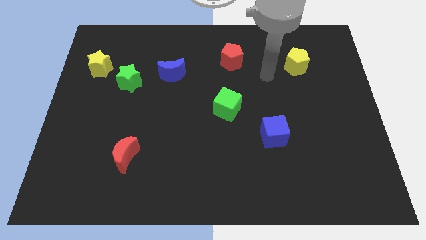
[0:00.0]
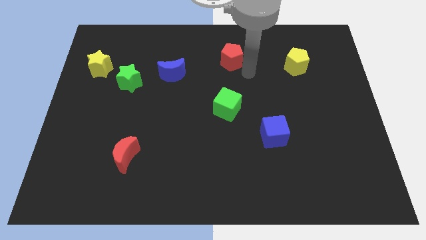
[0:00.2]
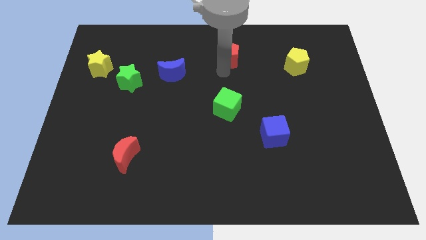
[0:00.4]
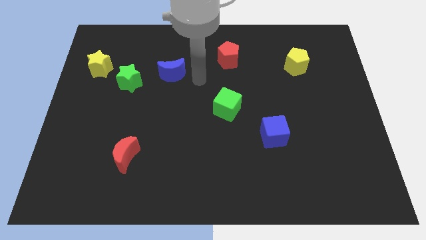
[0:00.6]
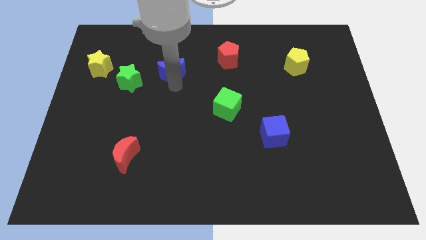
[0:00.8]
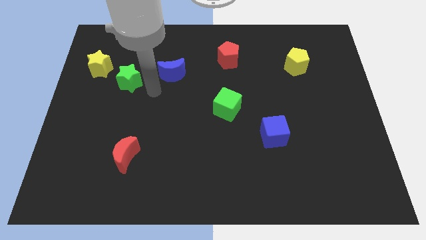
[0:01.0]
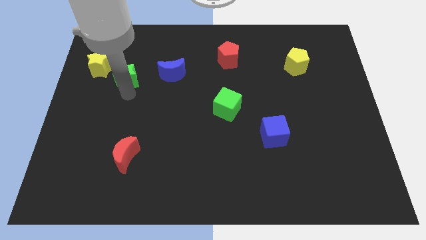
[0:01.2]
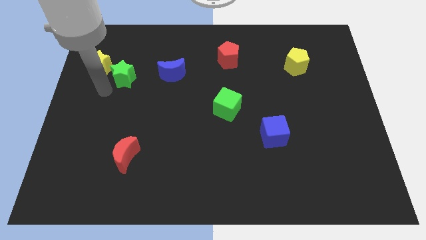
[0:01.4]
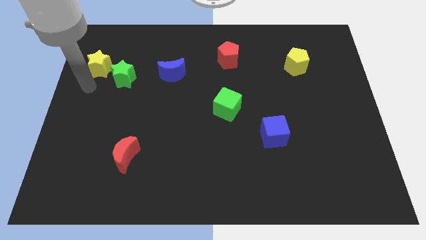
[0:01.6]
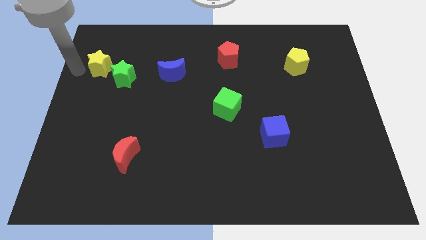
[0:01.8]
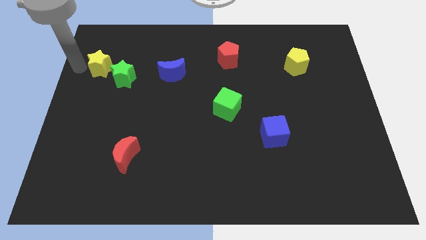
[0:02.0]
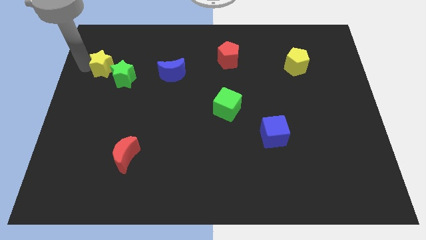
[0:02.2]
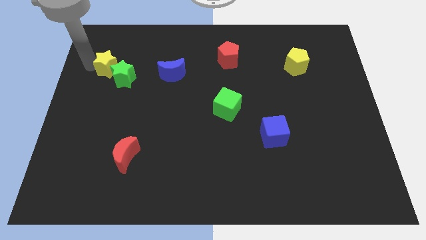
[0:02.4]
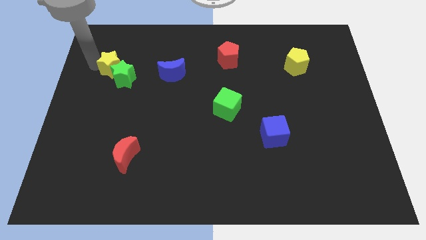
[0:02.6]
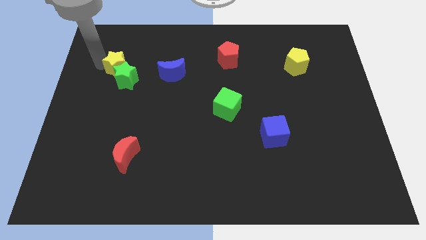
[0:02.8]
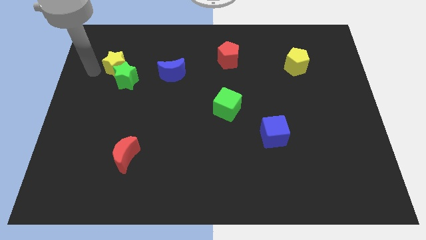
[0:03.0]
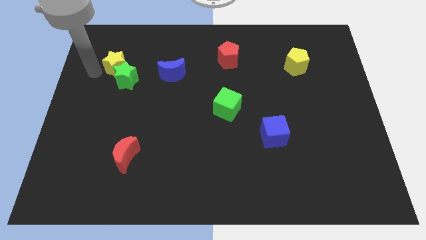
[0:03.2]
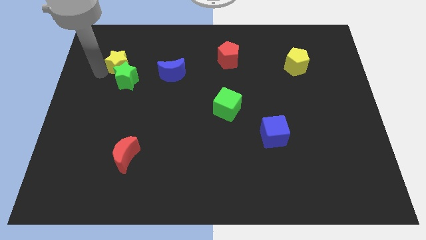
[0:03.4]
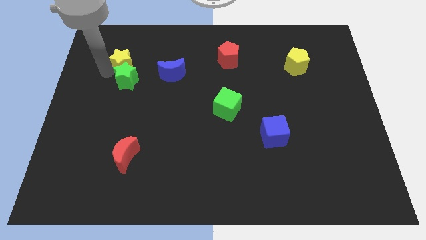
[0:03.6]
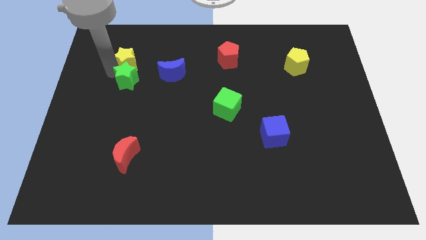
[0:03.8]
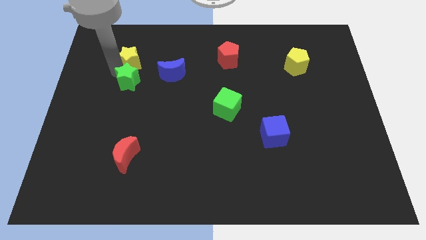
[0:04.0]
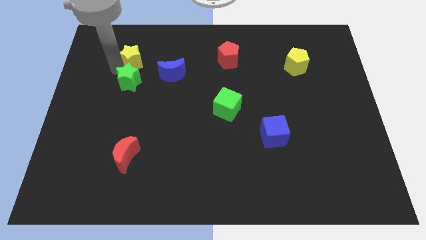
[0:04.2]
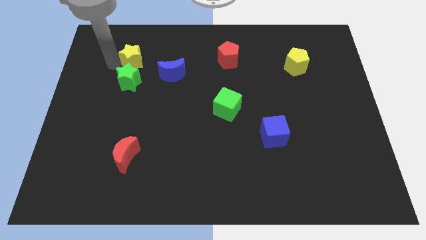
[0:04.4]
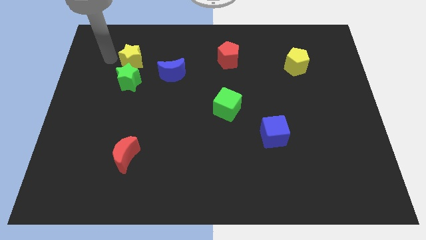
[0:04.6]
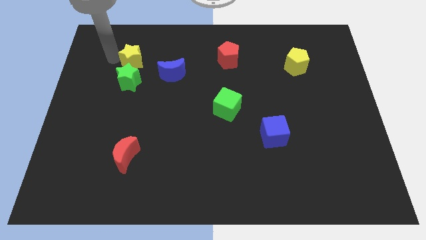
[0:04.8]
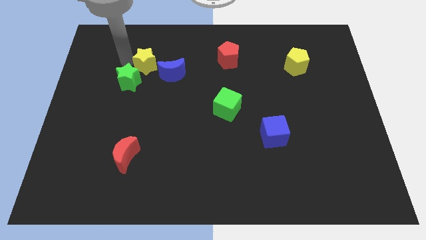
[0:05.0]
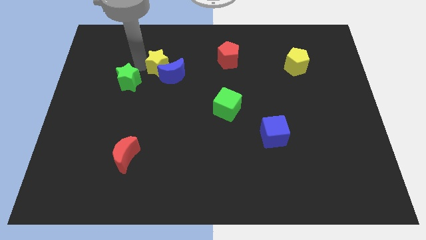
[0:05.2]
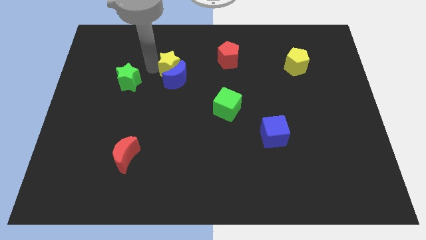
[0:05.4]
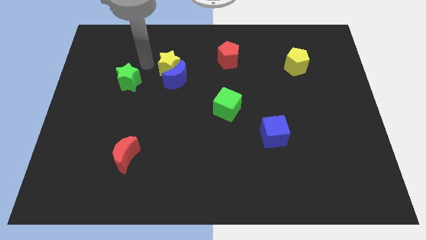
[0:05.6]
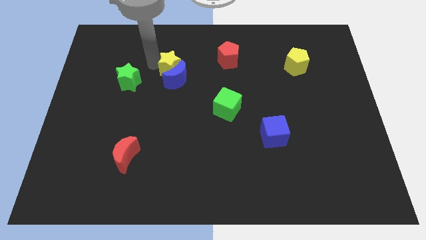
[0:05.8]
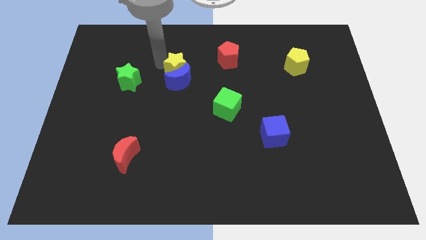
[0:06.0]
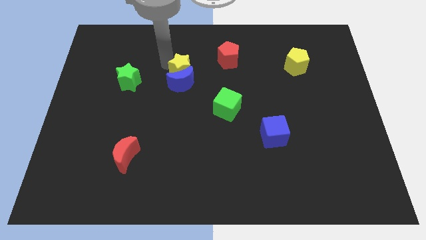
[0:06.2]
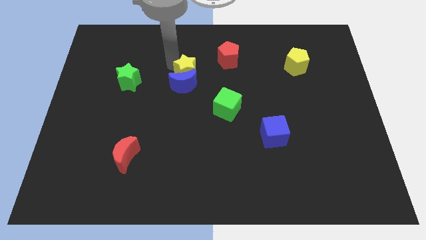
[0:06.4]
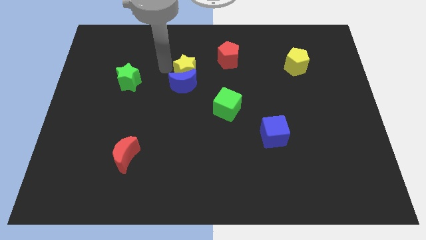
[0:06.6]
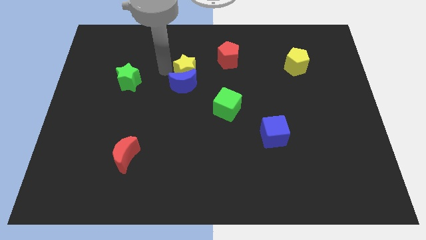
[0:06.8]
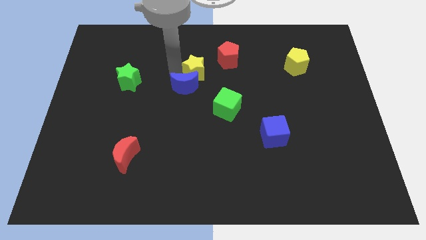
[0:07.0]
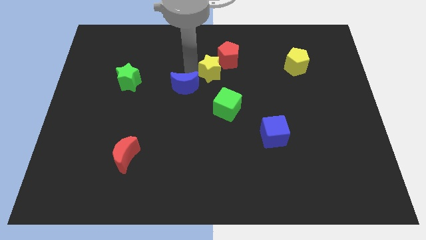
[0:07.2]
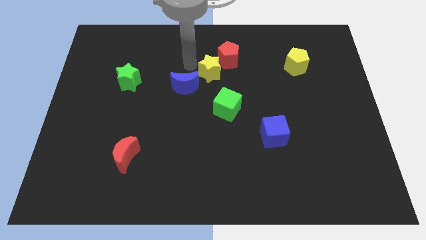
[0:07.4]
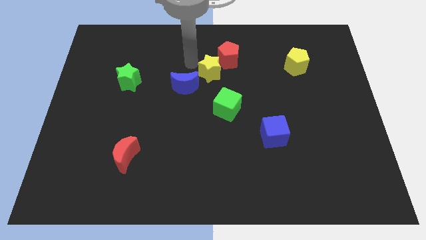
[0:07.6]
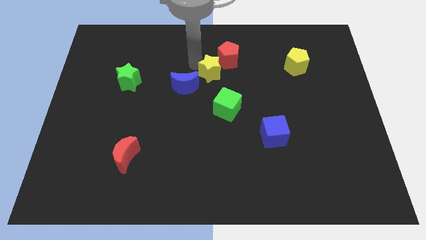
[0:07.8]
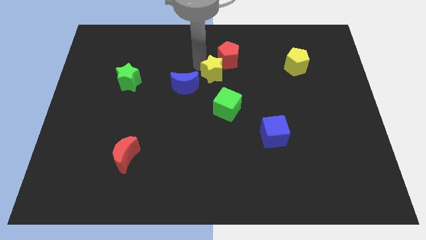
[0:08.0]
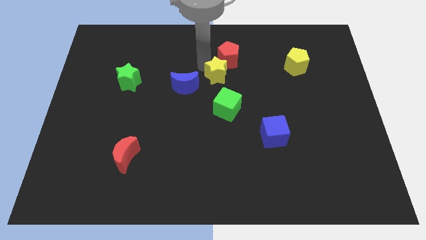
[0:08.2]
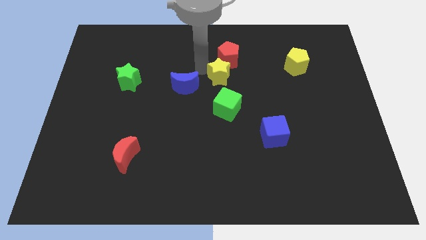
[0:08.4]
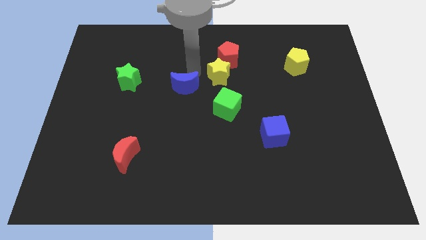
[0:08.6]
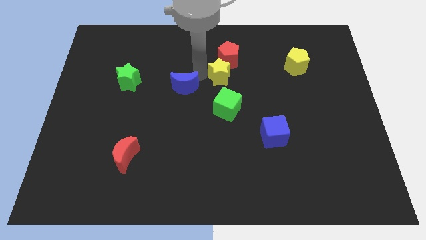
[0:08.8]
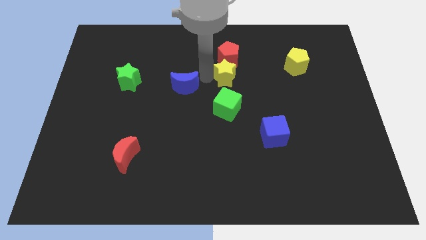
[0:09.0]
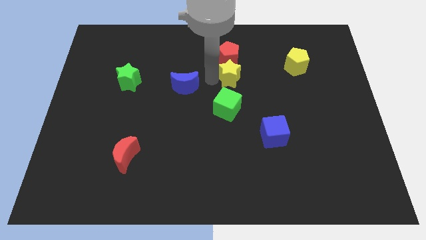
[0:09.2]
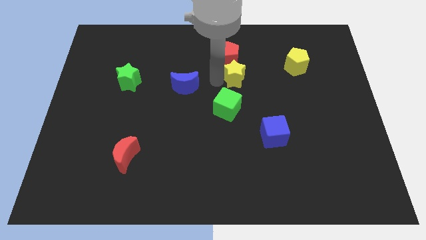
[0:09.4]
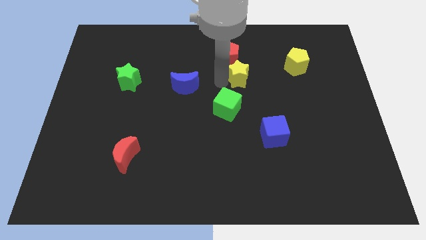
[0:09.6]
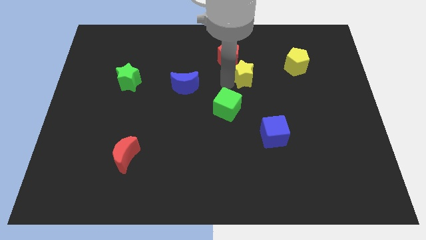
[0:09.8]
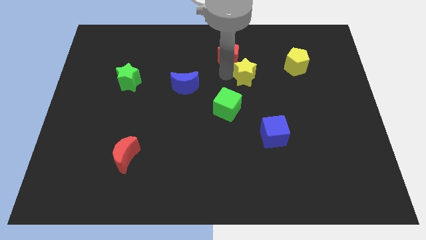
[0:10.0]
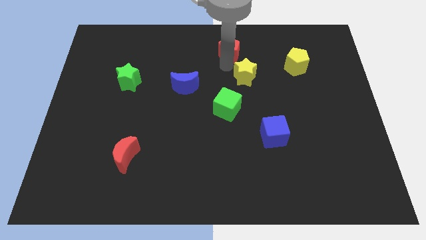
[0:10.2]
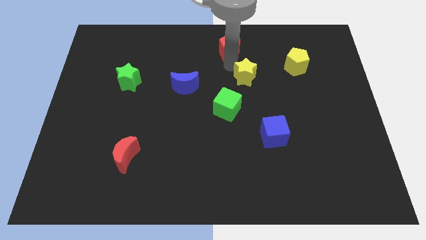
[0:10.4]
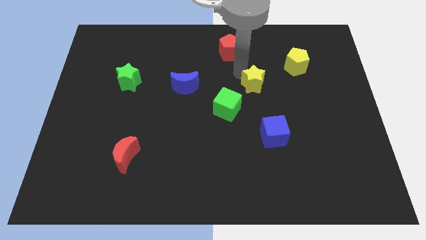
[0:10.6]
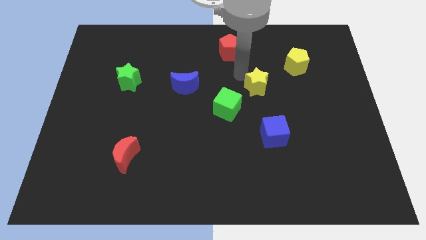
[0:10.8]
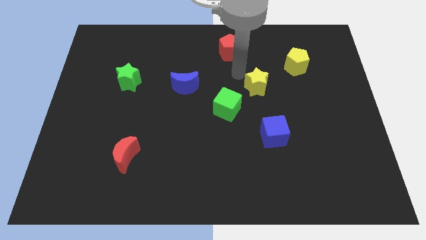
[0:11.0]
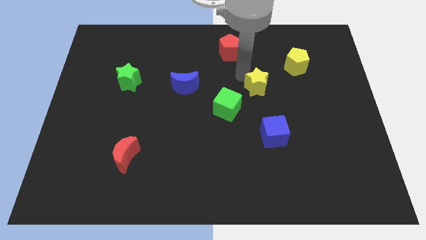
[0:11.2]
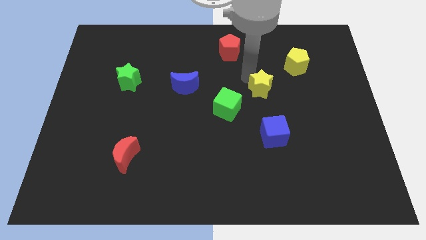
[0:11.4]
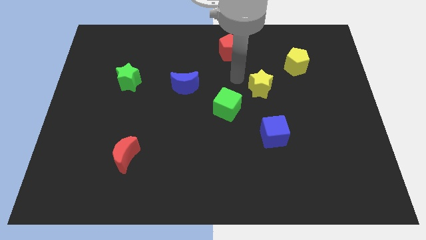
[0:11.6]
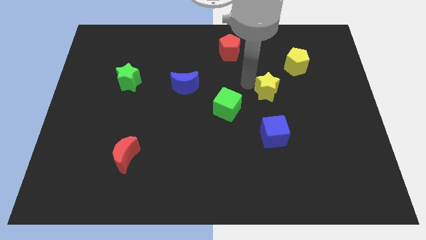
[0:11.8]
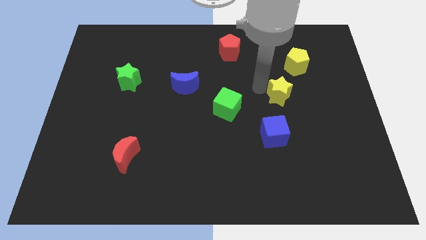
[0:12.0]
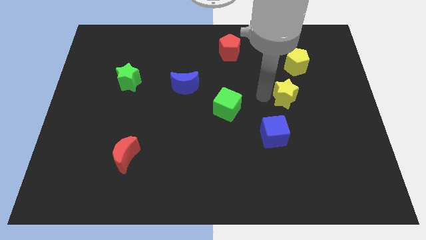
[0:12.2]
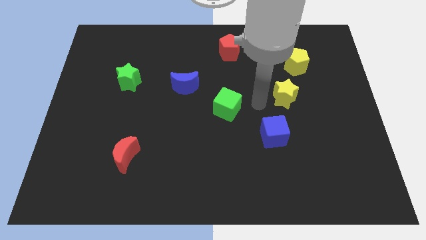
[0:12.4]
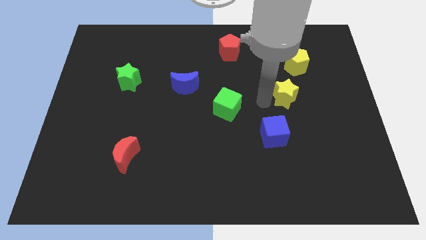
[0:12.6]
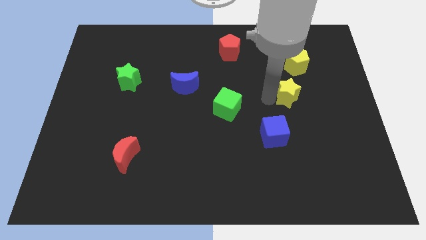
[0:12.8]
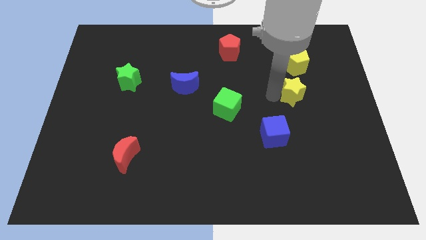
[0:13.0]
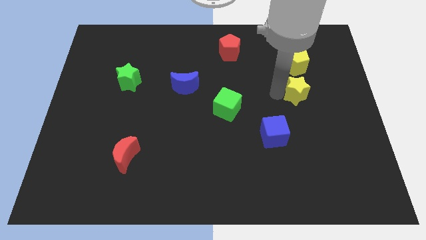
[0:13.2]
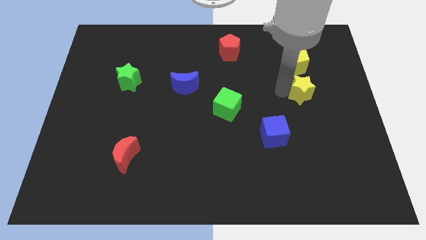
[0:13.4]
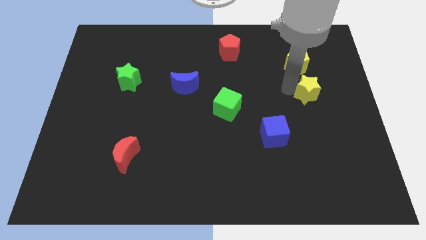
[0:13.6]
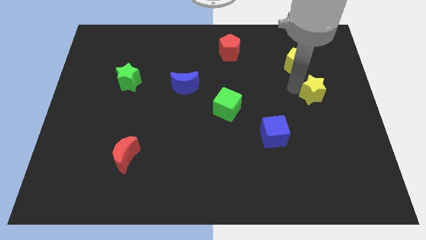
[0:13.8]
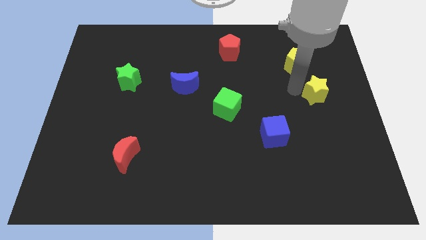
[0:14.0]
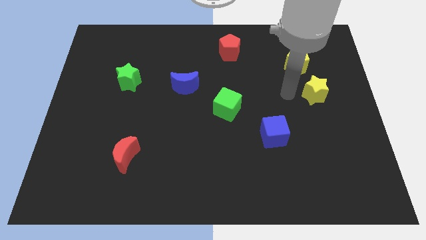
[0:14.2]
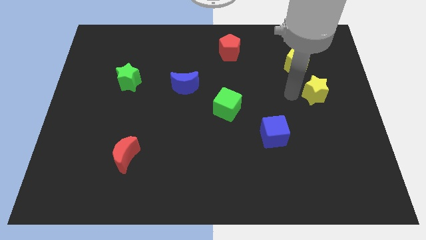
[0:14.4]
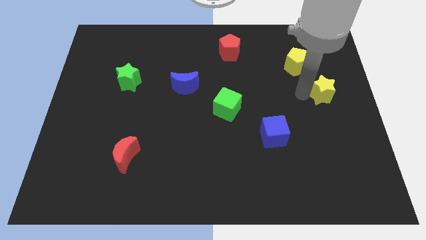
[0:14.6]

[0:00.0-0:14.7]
slide the yellow star to the center right
